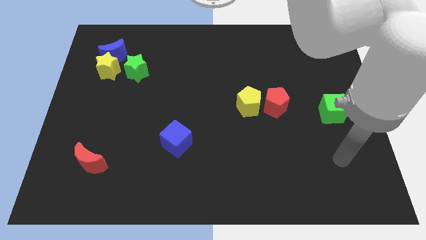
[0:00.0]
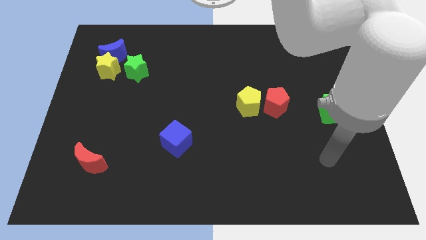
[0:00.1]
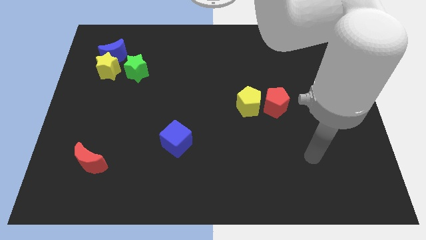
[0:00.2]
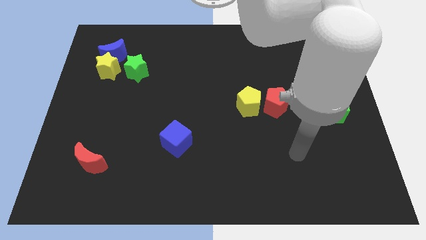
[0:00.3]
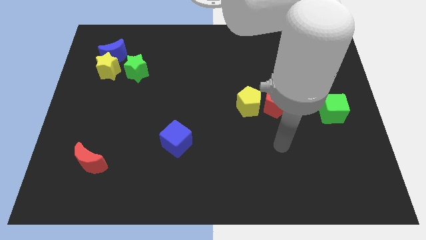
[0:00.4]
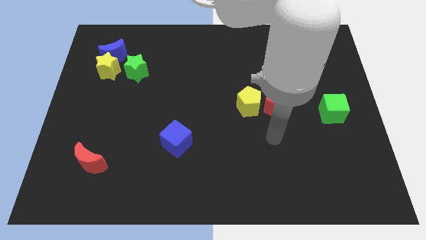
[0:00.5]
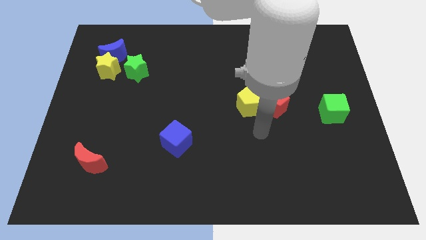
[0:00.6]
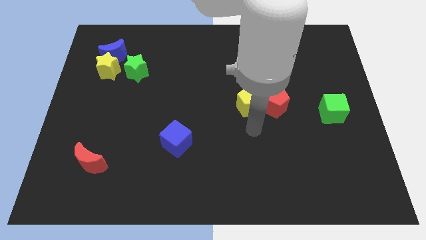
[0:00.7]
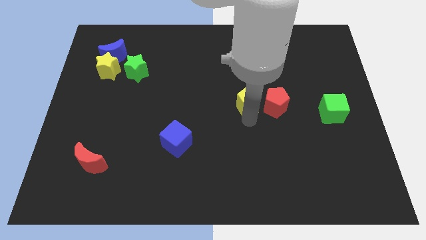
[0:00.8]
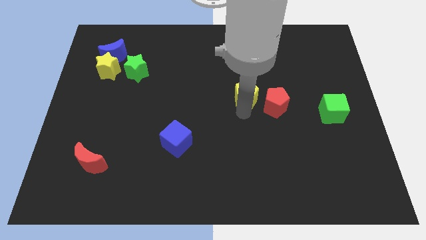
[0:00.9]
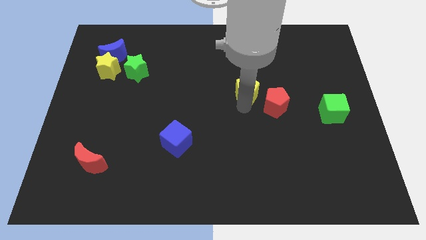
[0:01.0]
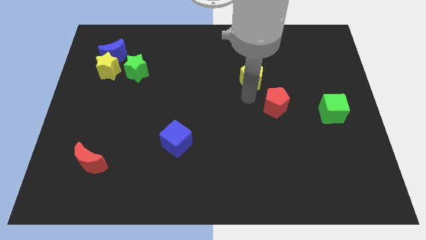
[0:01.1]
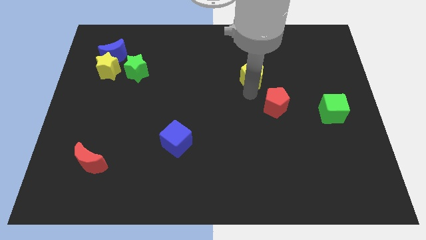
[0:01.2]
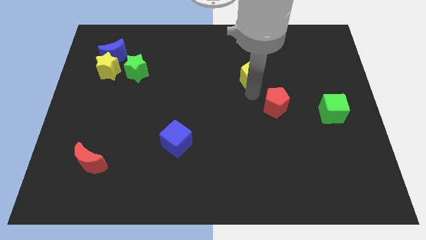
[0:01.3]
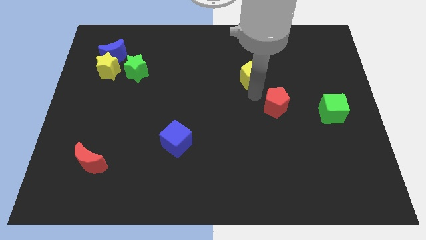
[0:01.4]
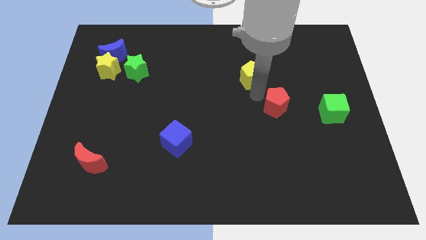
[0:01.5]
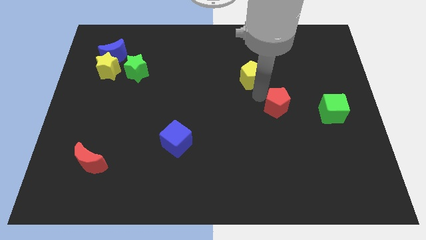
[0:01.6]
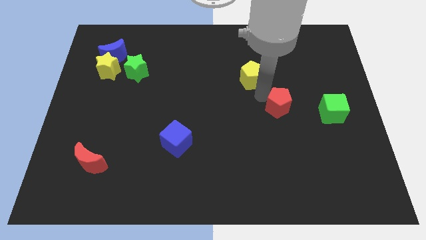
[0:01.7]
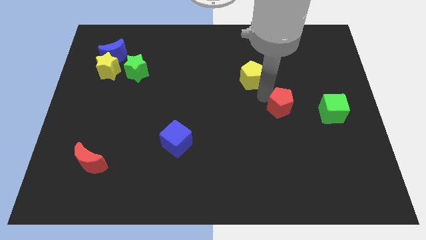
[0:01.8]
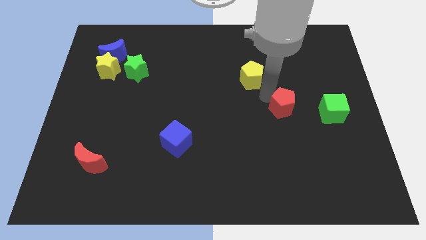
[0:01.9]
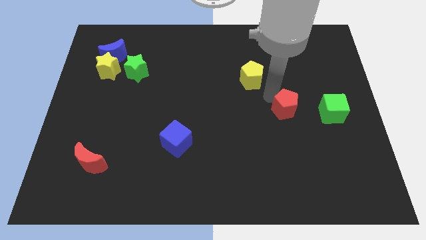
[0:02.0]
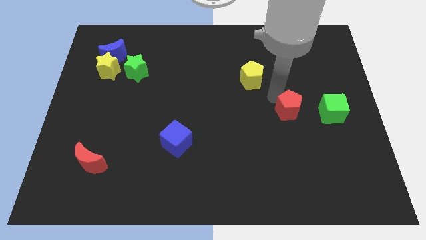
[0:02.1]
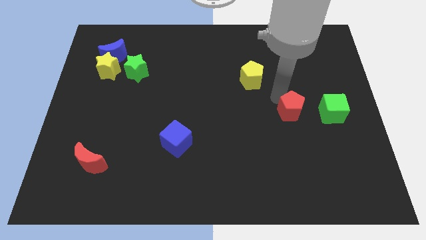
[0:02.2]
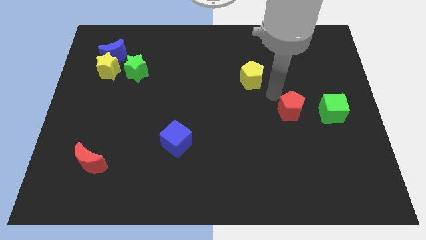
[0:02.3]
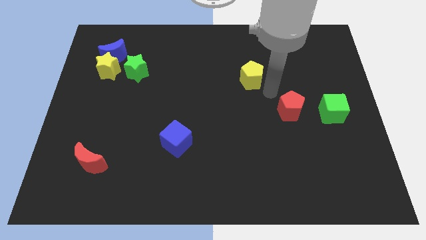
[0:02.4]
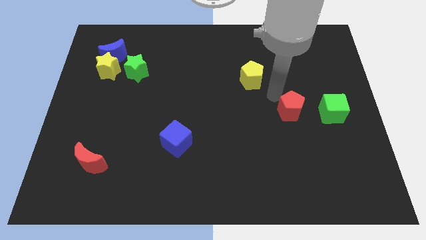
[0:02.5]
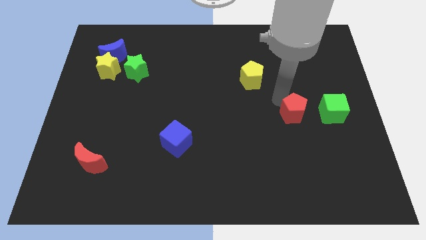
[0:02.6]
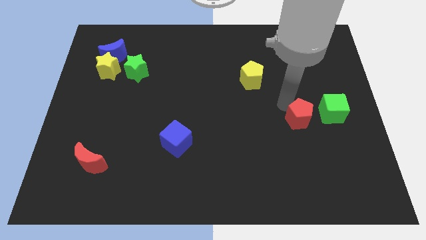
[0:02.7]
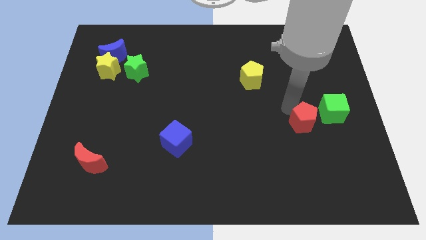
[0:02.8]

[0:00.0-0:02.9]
slightly slide the red pentagon downwards and right diagonally

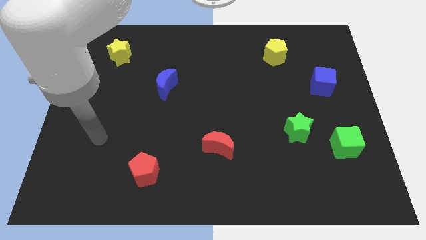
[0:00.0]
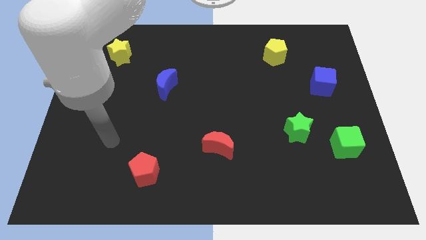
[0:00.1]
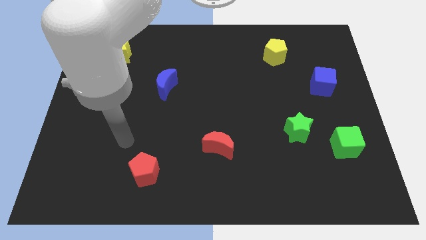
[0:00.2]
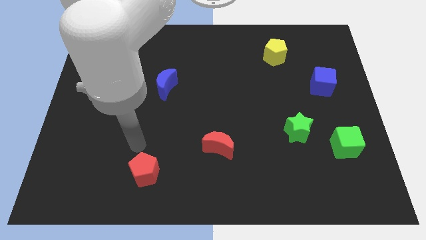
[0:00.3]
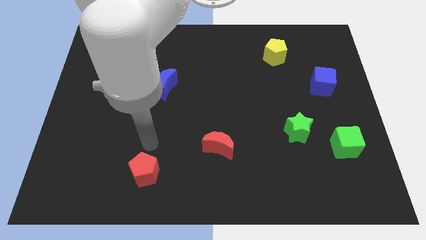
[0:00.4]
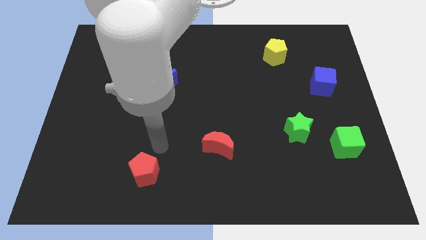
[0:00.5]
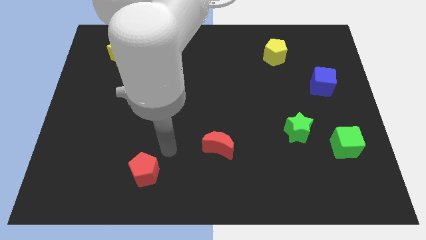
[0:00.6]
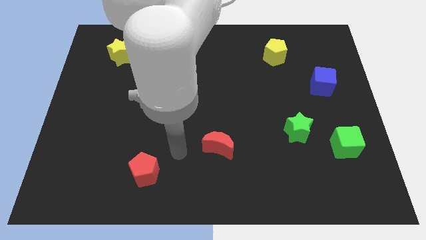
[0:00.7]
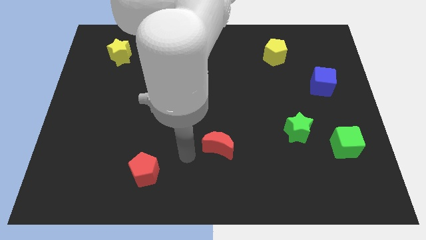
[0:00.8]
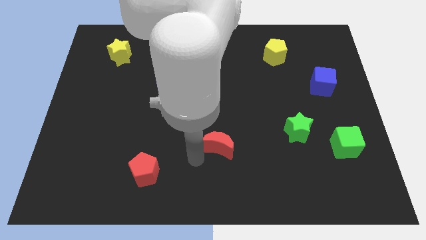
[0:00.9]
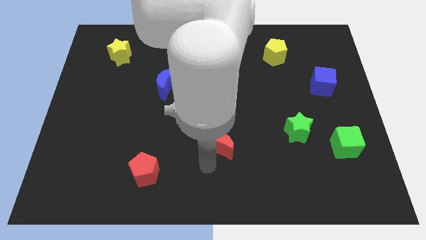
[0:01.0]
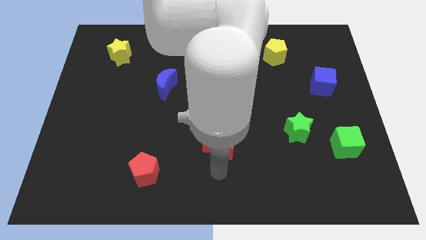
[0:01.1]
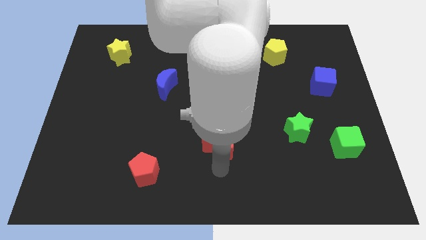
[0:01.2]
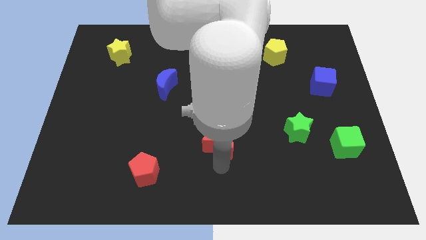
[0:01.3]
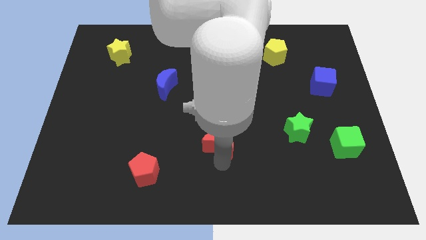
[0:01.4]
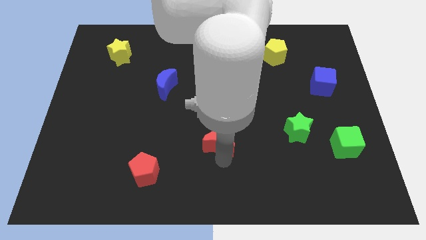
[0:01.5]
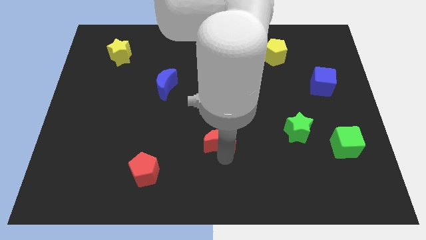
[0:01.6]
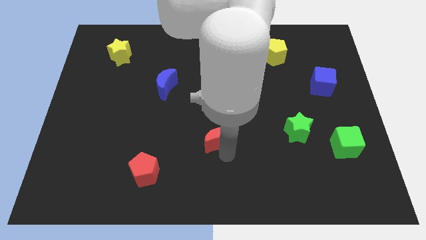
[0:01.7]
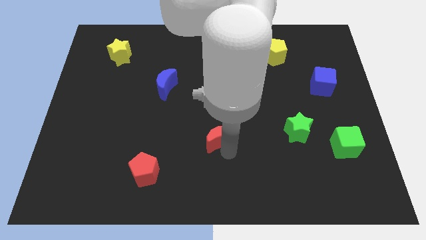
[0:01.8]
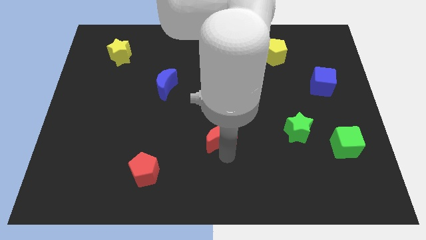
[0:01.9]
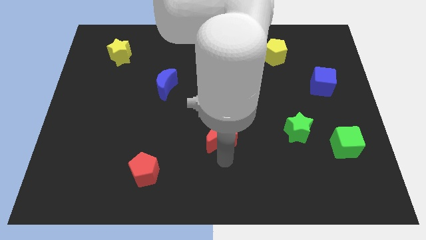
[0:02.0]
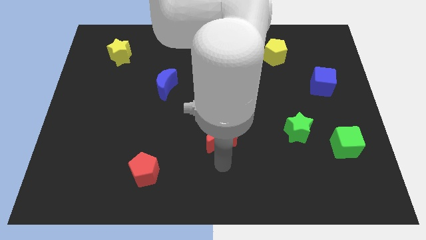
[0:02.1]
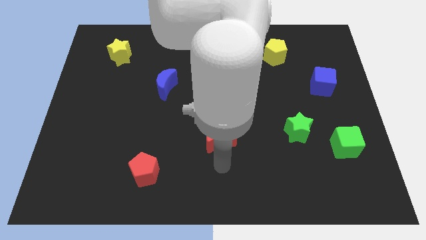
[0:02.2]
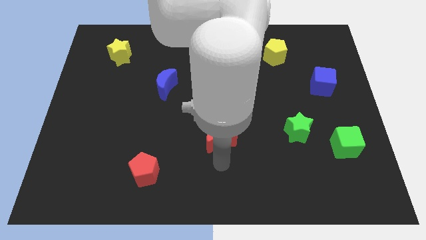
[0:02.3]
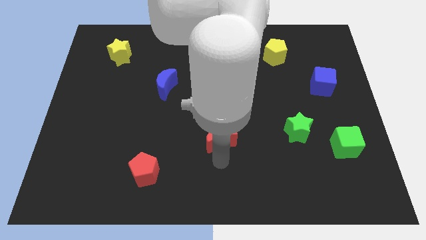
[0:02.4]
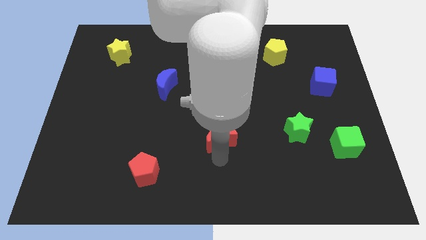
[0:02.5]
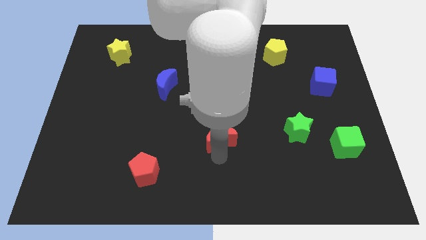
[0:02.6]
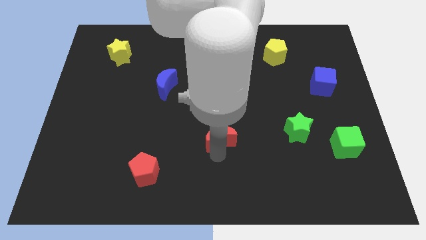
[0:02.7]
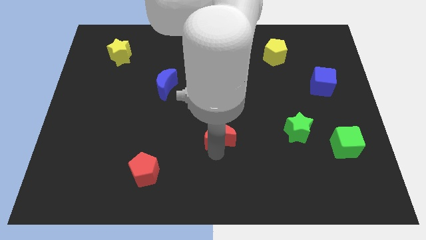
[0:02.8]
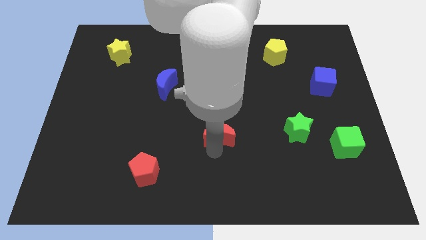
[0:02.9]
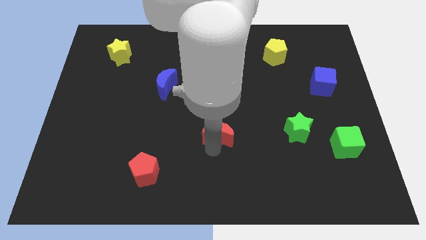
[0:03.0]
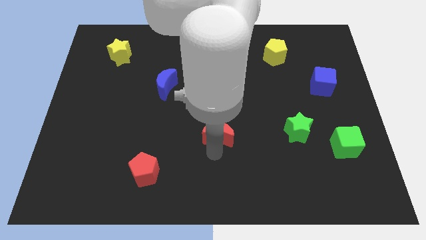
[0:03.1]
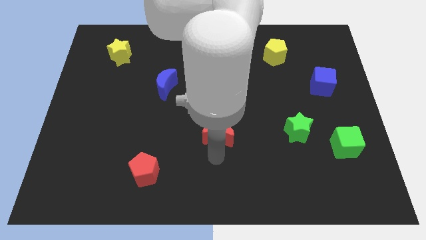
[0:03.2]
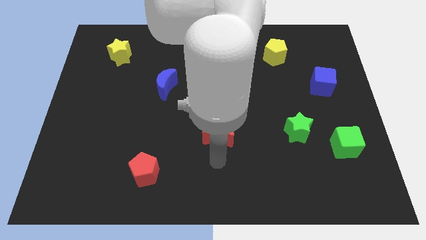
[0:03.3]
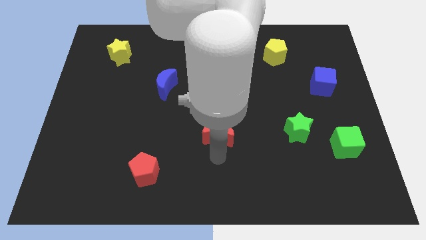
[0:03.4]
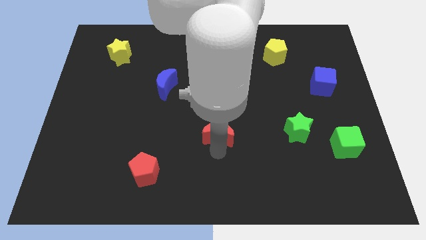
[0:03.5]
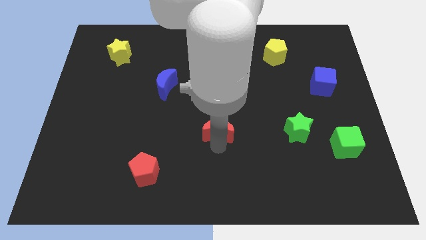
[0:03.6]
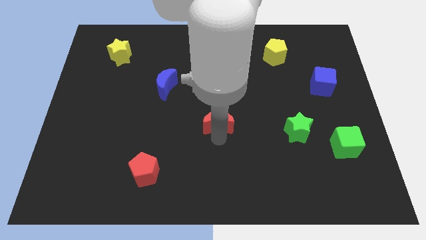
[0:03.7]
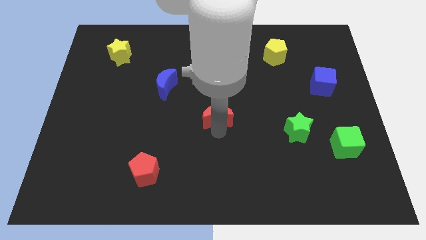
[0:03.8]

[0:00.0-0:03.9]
move the red moon a bit up

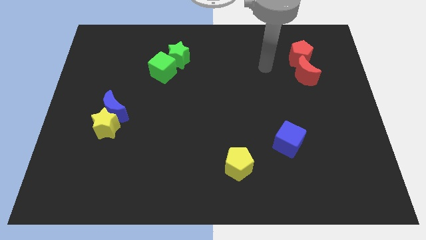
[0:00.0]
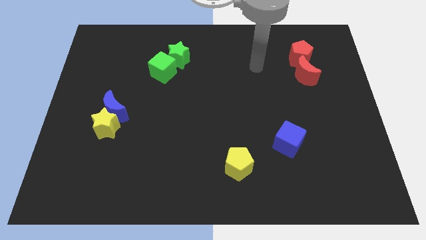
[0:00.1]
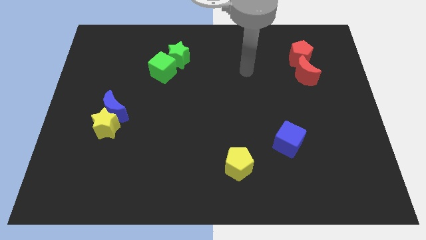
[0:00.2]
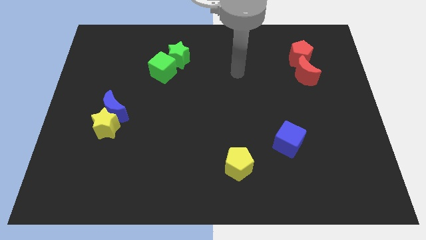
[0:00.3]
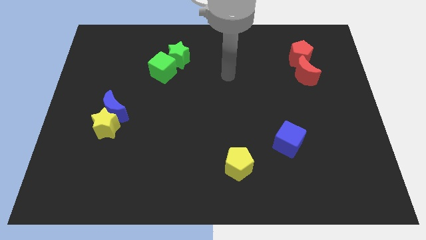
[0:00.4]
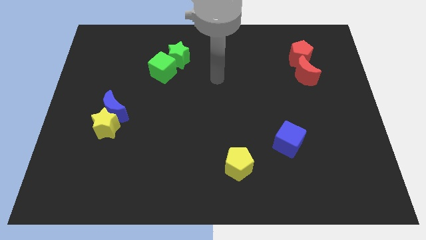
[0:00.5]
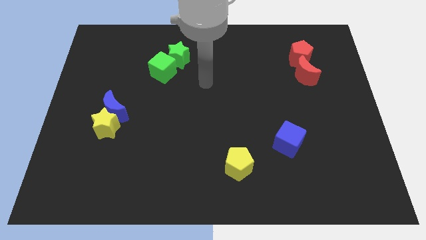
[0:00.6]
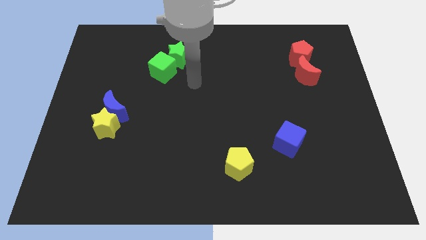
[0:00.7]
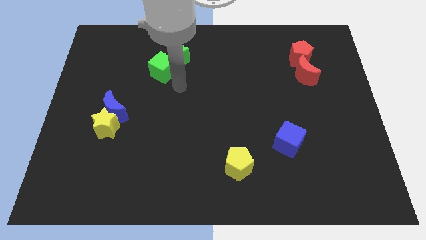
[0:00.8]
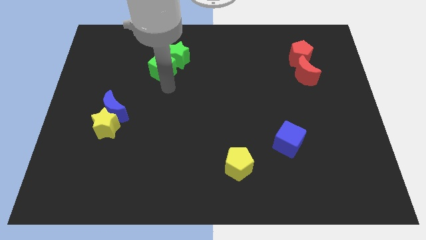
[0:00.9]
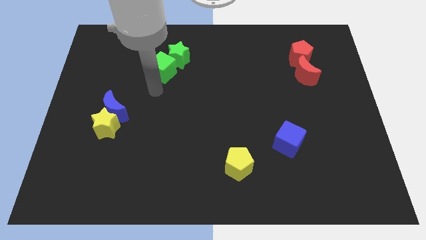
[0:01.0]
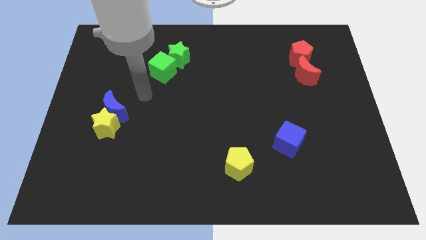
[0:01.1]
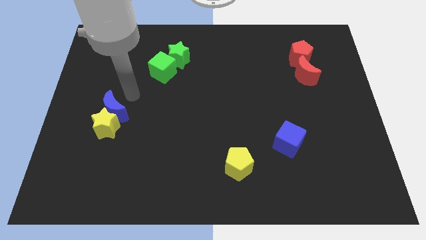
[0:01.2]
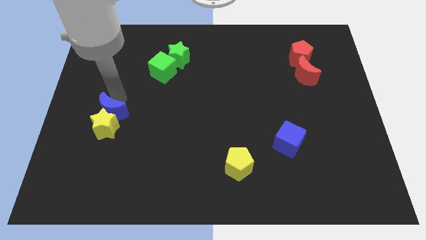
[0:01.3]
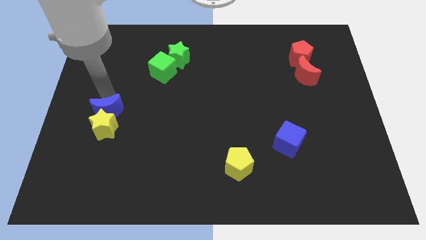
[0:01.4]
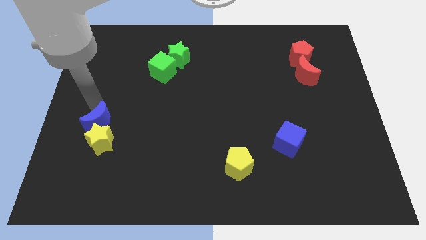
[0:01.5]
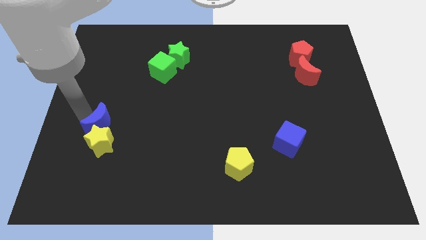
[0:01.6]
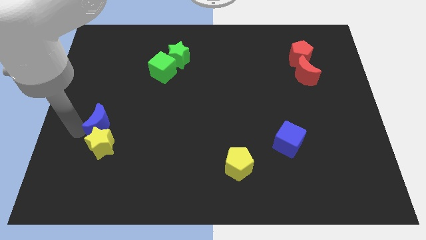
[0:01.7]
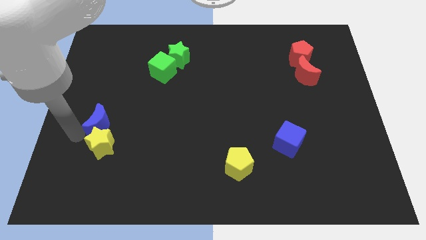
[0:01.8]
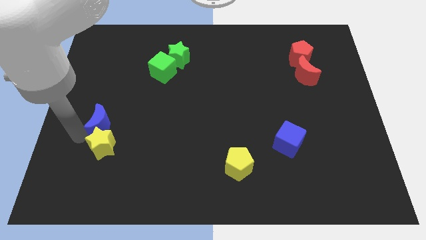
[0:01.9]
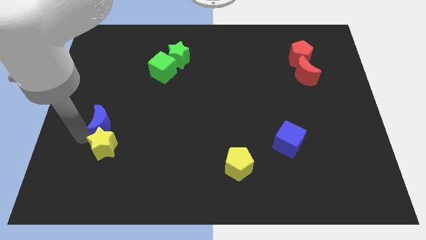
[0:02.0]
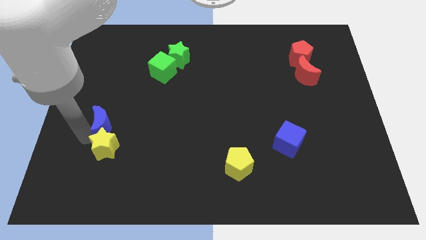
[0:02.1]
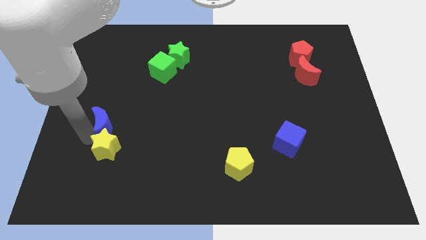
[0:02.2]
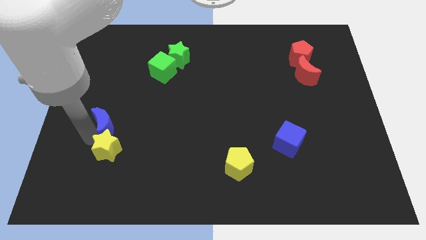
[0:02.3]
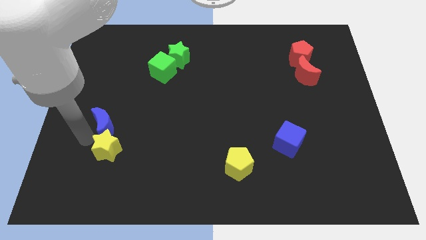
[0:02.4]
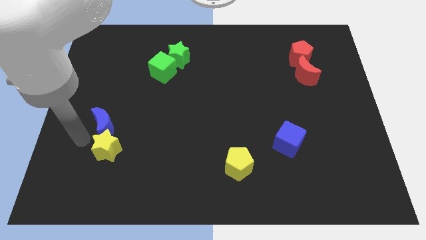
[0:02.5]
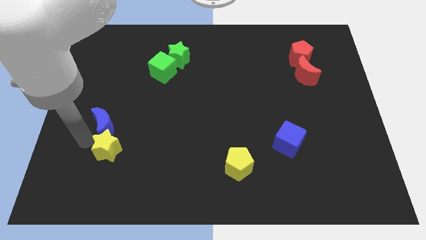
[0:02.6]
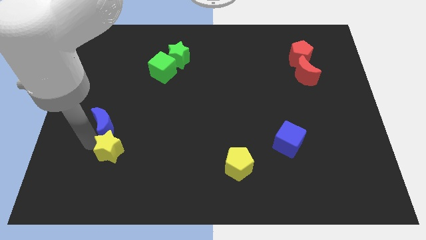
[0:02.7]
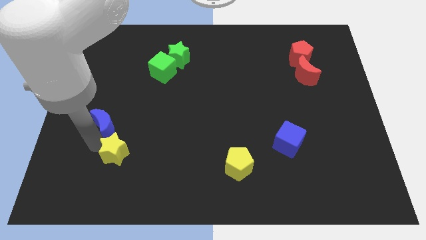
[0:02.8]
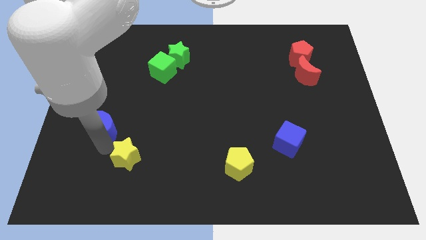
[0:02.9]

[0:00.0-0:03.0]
slightly slide the yellow star diagonally downwards and right
